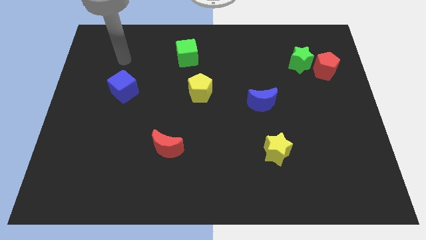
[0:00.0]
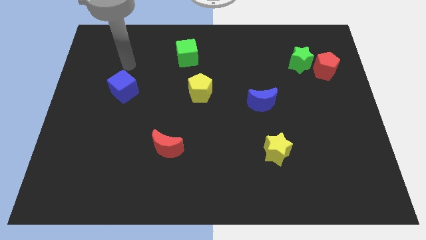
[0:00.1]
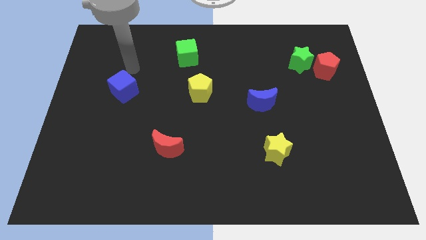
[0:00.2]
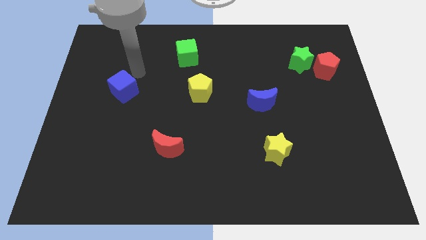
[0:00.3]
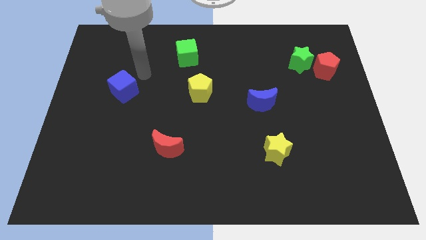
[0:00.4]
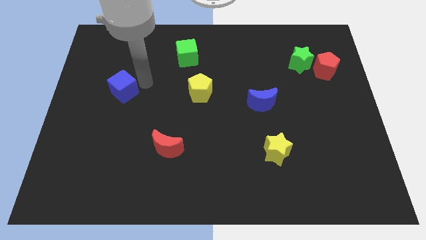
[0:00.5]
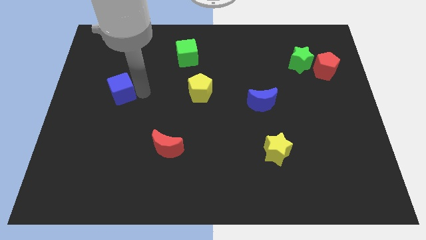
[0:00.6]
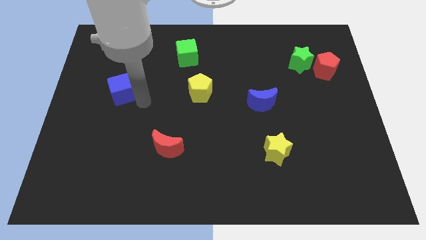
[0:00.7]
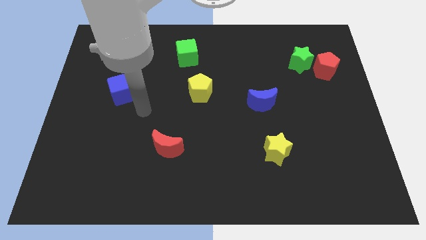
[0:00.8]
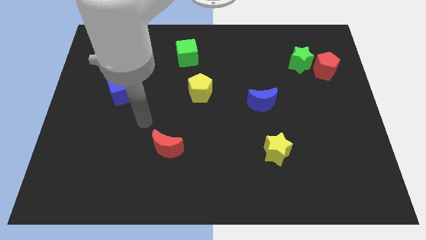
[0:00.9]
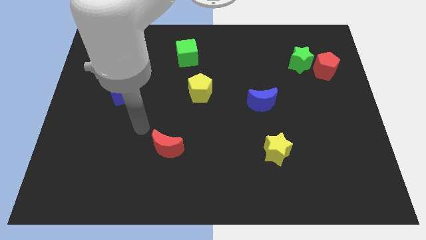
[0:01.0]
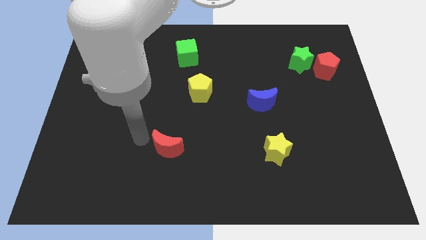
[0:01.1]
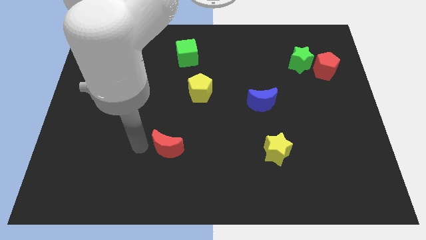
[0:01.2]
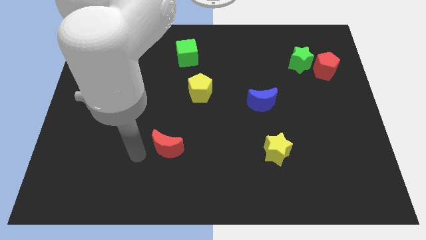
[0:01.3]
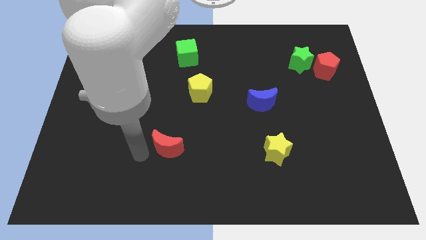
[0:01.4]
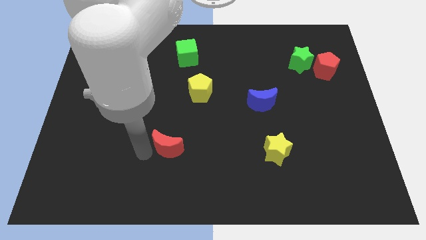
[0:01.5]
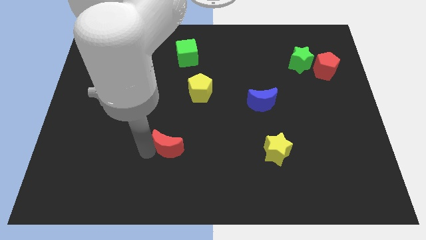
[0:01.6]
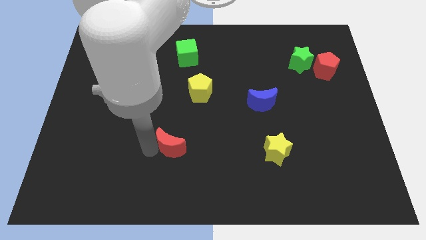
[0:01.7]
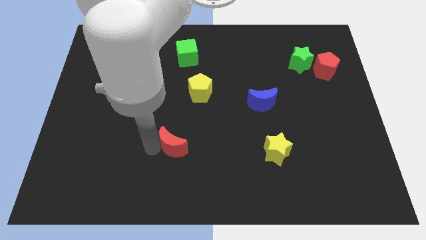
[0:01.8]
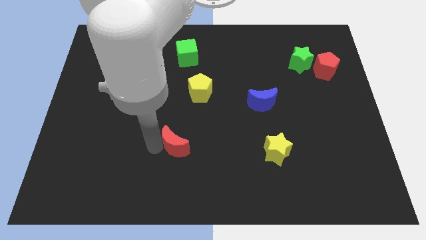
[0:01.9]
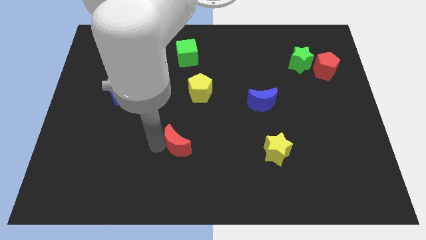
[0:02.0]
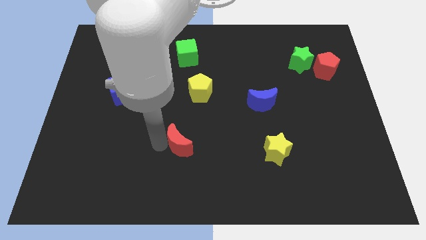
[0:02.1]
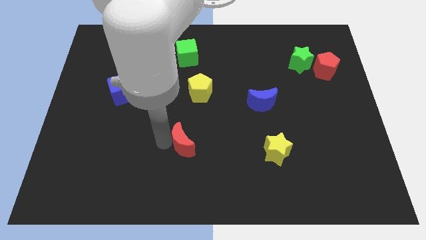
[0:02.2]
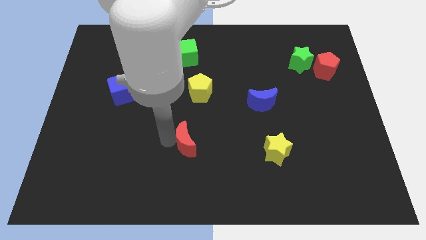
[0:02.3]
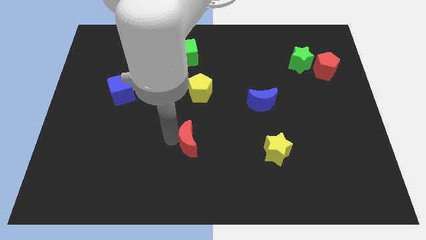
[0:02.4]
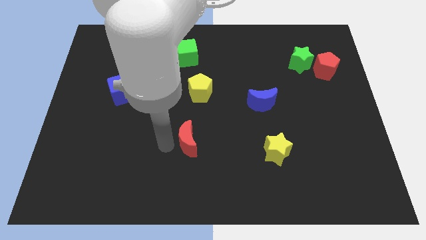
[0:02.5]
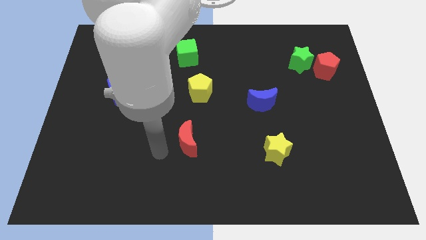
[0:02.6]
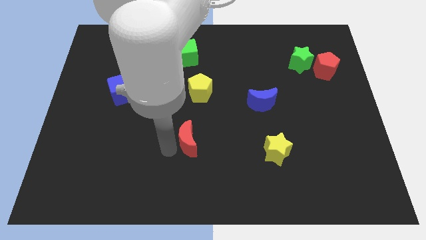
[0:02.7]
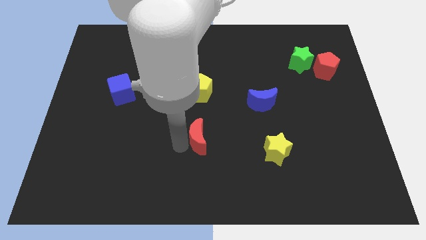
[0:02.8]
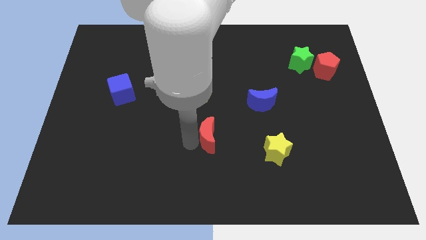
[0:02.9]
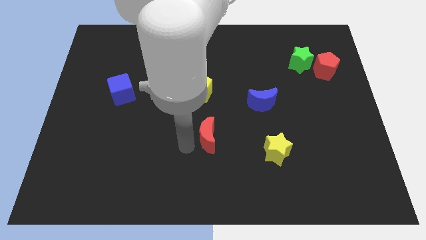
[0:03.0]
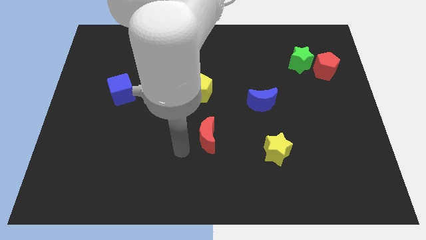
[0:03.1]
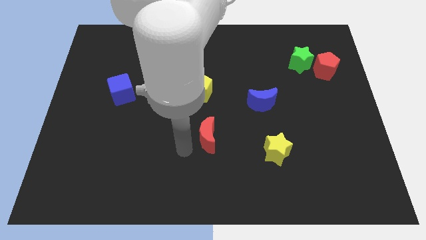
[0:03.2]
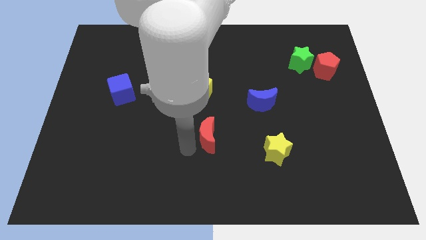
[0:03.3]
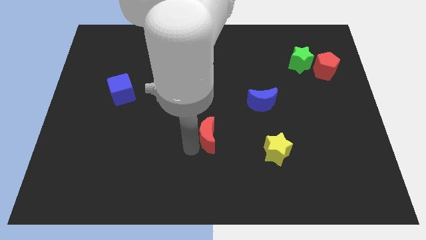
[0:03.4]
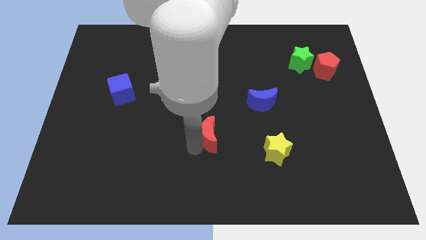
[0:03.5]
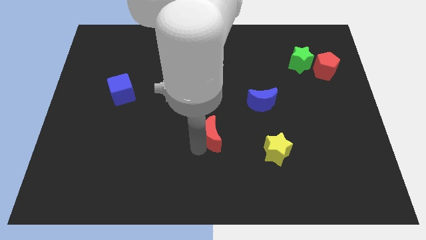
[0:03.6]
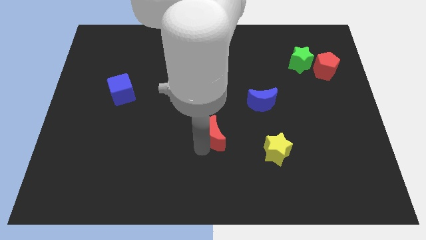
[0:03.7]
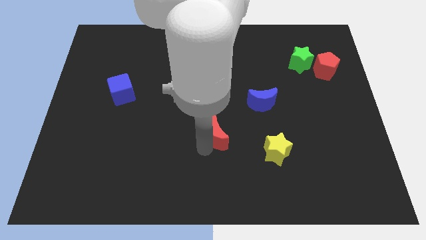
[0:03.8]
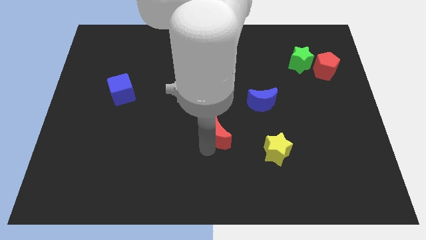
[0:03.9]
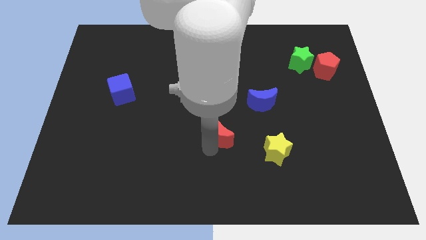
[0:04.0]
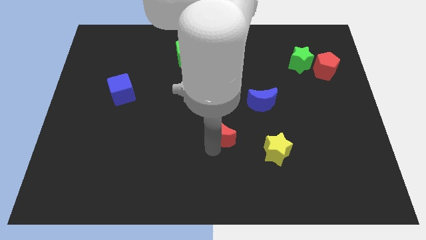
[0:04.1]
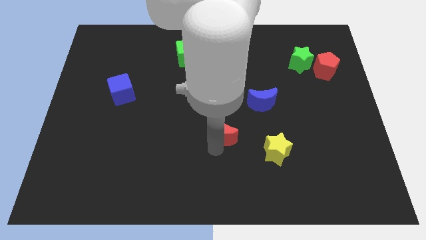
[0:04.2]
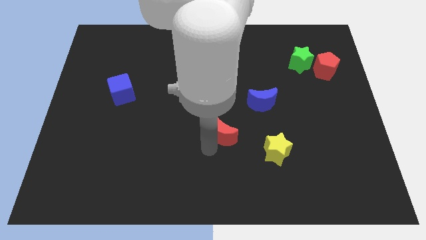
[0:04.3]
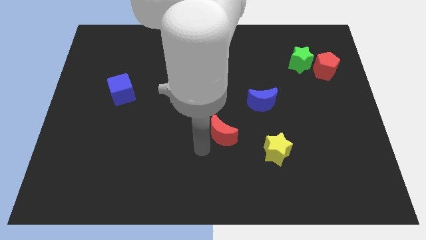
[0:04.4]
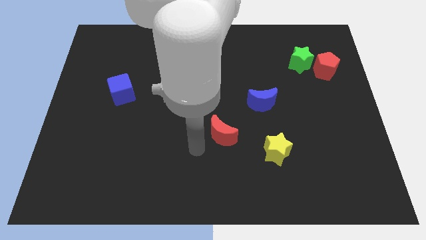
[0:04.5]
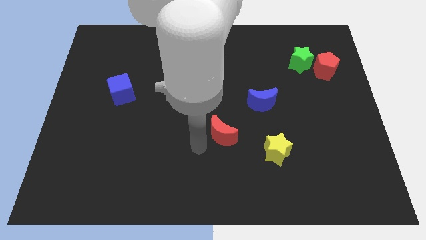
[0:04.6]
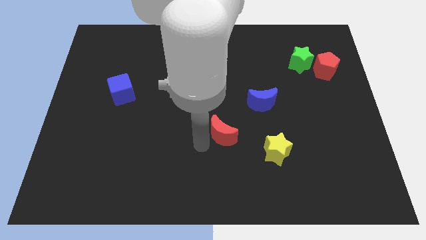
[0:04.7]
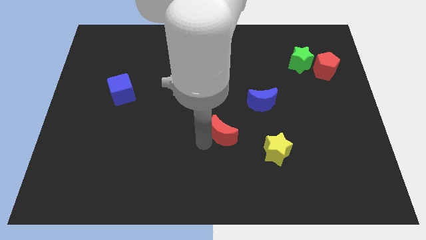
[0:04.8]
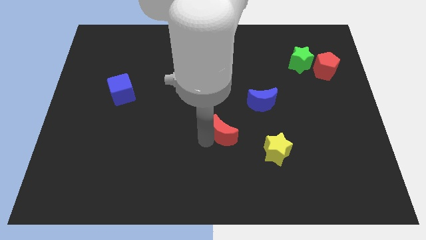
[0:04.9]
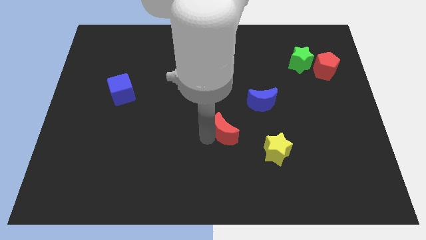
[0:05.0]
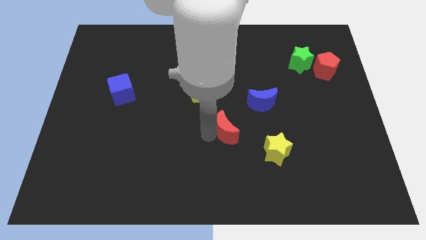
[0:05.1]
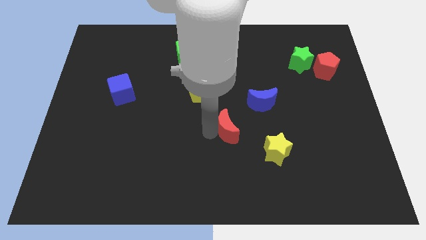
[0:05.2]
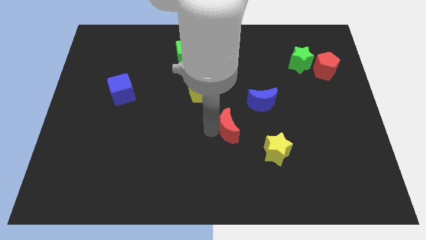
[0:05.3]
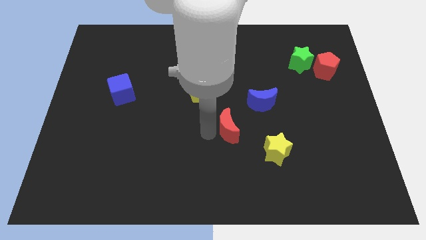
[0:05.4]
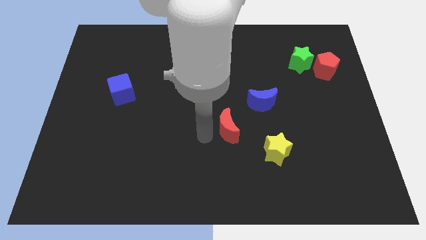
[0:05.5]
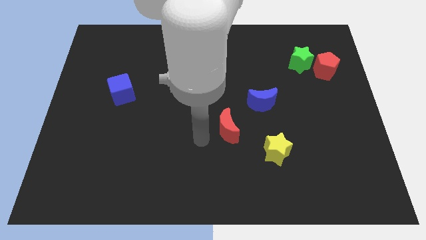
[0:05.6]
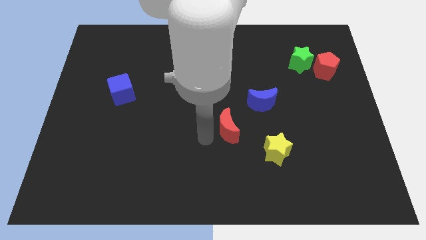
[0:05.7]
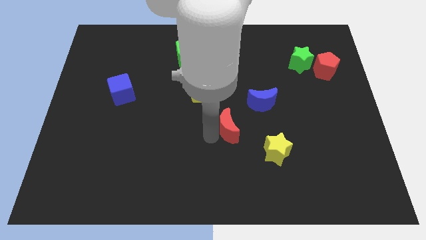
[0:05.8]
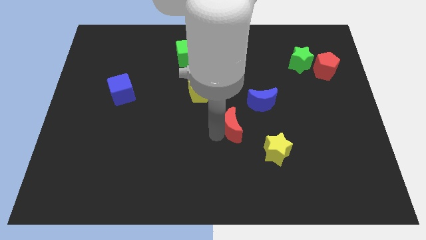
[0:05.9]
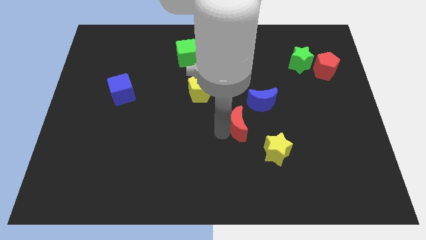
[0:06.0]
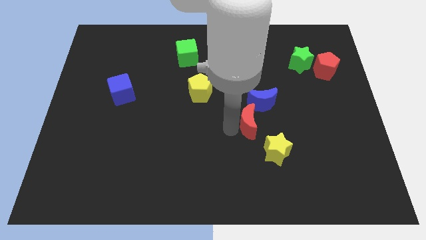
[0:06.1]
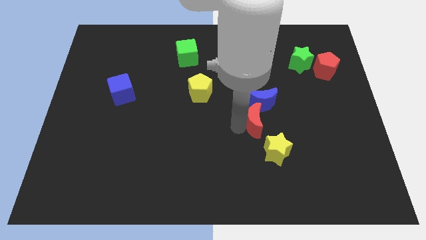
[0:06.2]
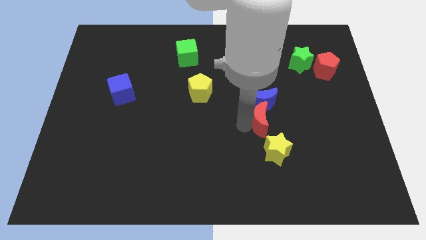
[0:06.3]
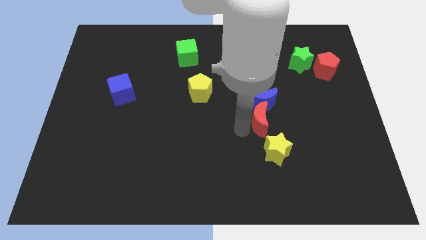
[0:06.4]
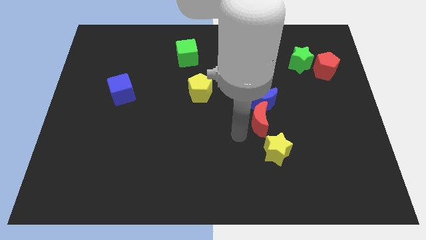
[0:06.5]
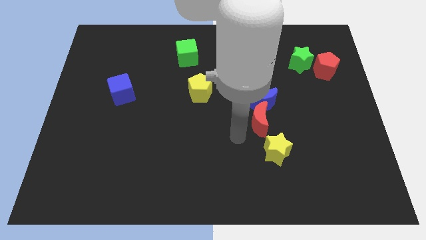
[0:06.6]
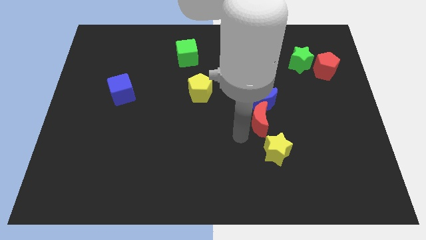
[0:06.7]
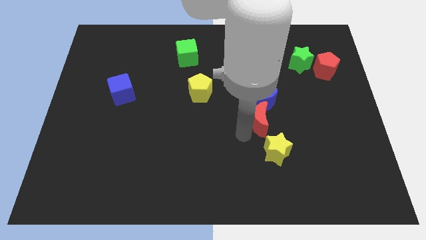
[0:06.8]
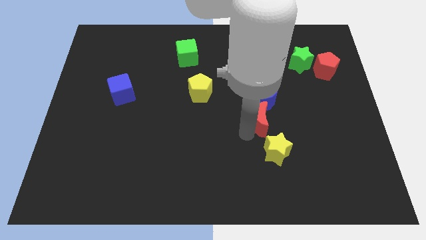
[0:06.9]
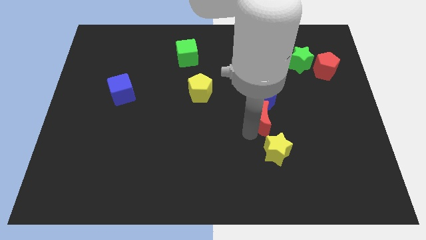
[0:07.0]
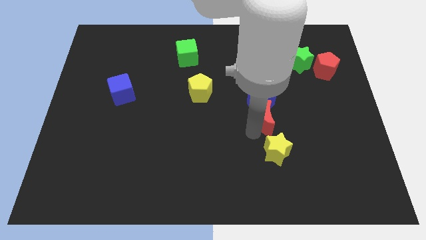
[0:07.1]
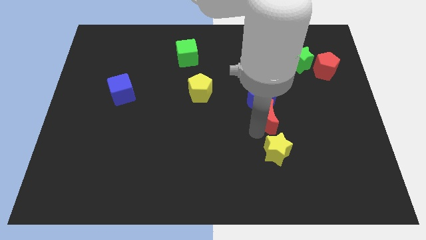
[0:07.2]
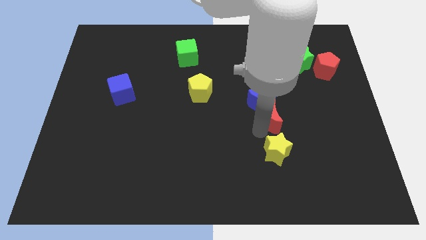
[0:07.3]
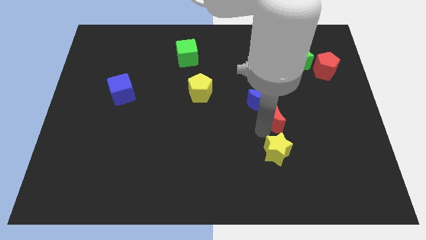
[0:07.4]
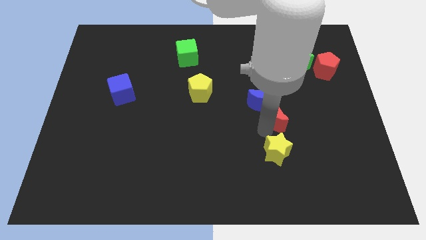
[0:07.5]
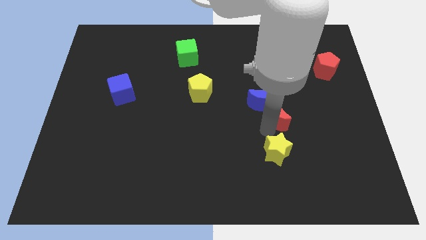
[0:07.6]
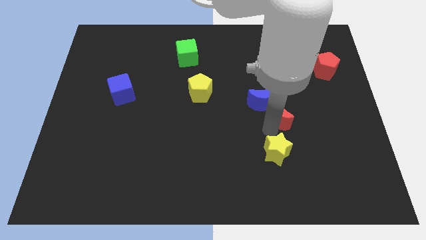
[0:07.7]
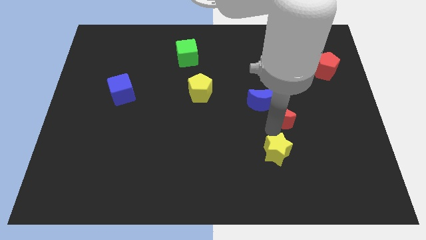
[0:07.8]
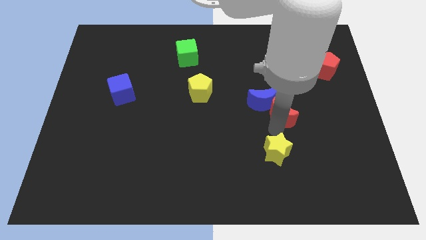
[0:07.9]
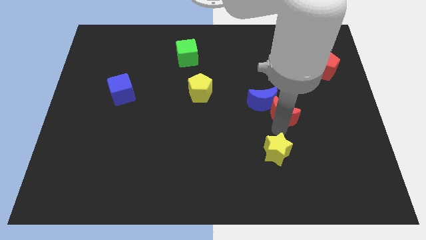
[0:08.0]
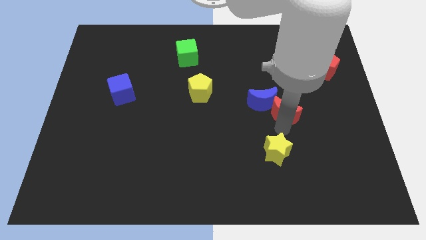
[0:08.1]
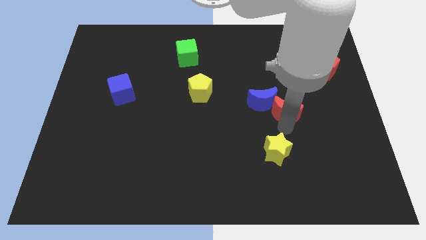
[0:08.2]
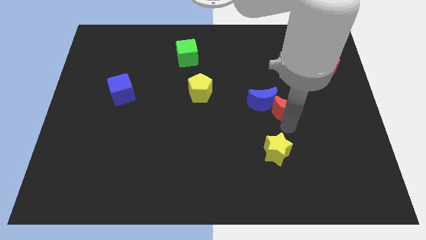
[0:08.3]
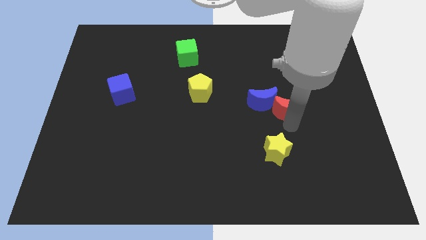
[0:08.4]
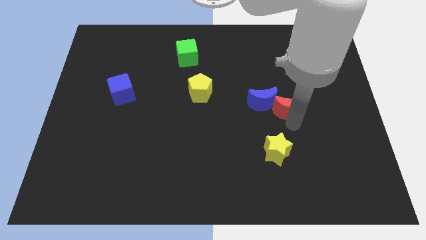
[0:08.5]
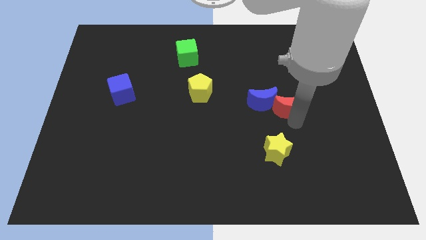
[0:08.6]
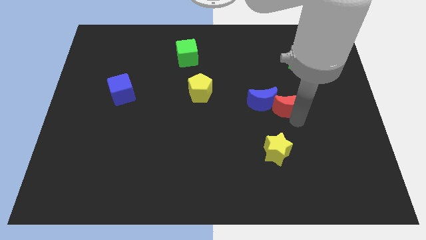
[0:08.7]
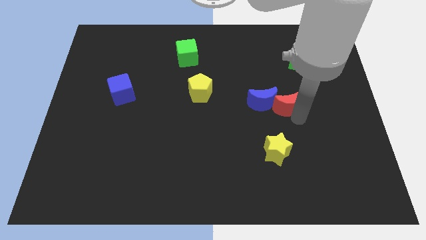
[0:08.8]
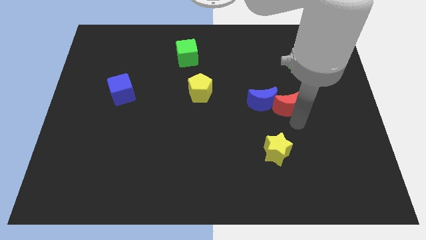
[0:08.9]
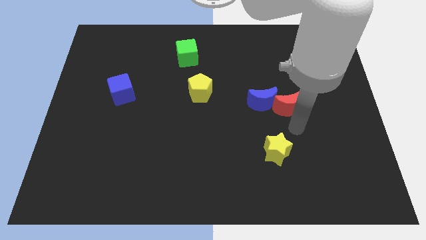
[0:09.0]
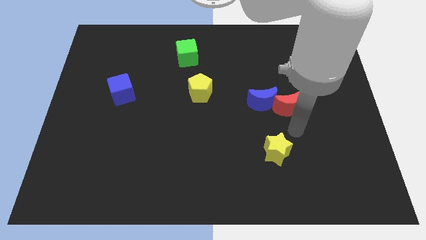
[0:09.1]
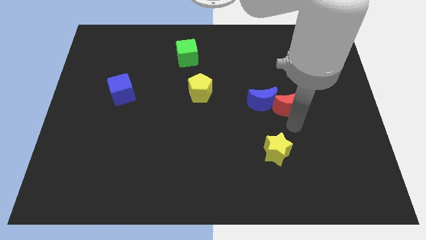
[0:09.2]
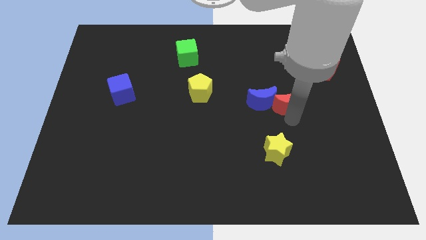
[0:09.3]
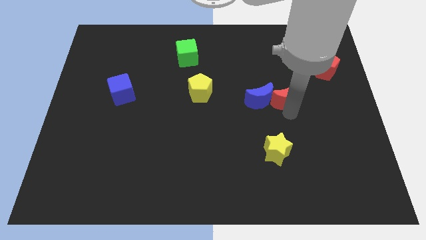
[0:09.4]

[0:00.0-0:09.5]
slide the red moon diagonally up and to the right of the blue moon
